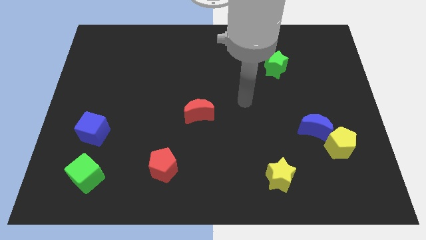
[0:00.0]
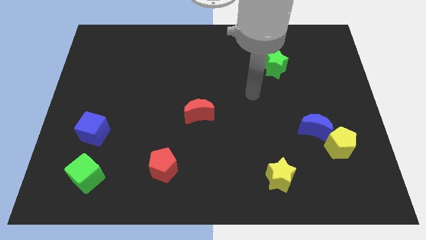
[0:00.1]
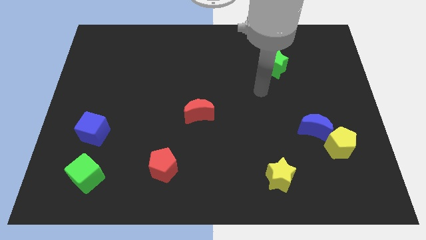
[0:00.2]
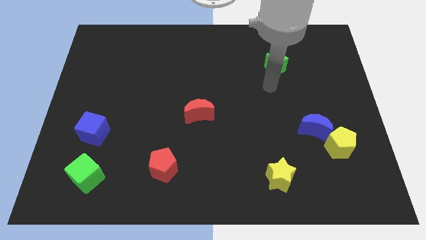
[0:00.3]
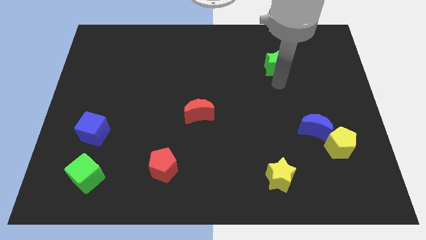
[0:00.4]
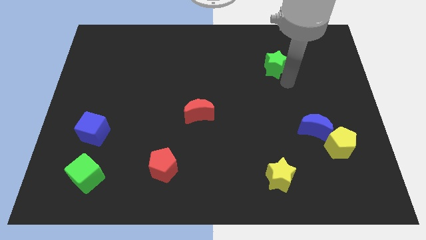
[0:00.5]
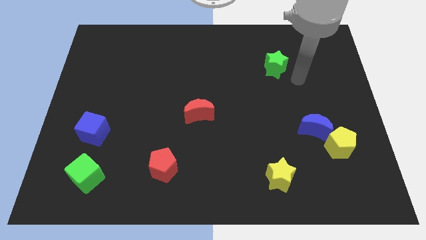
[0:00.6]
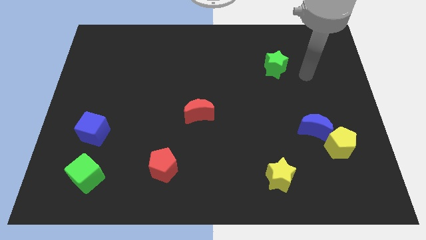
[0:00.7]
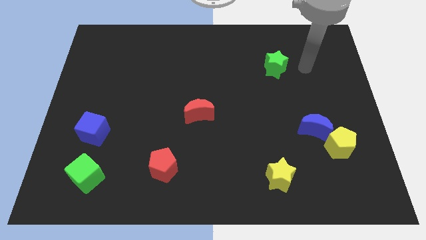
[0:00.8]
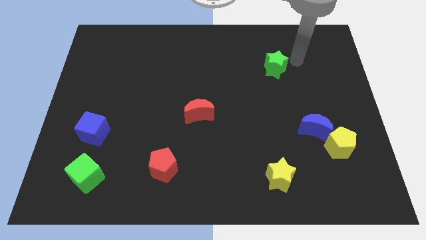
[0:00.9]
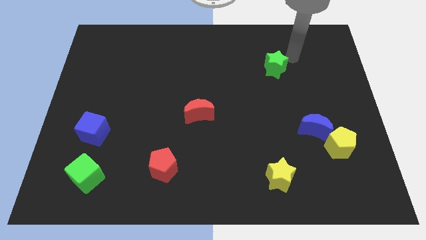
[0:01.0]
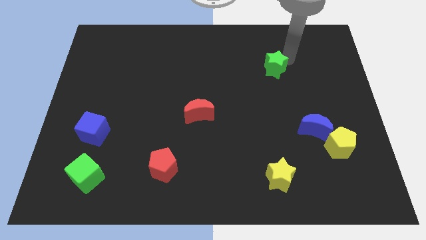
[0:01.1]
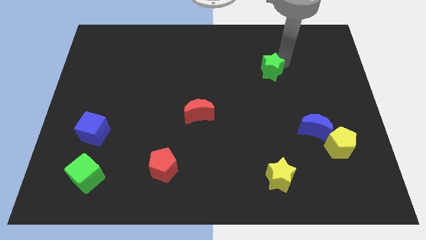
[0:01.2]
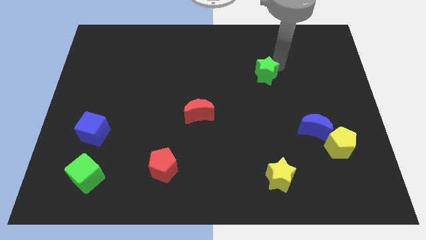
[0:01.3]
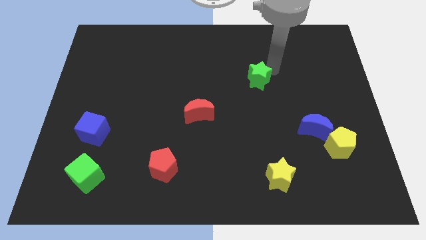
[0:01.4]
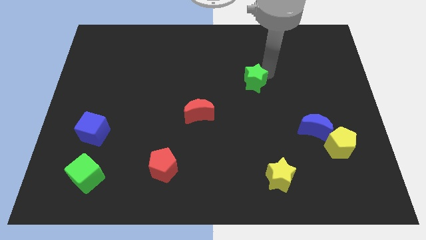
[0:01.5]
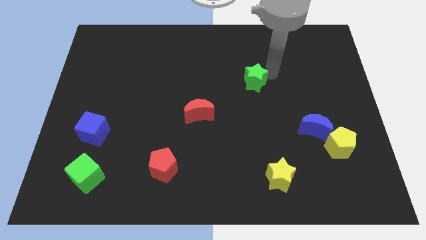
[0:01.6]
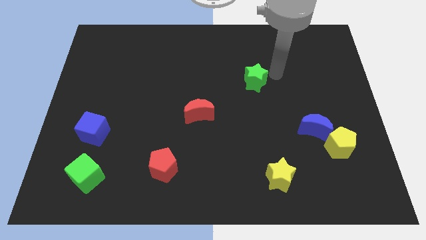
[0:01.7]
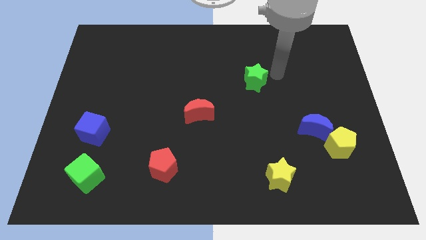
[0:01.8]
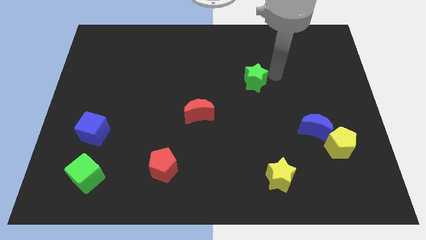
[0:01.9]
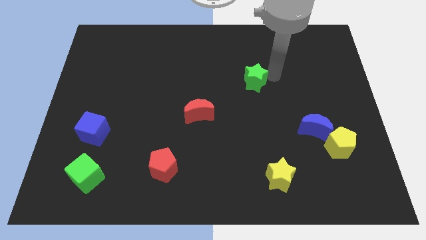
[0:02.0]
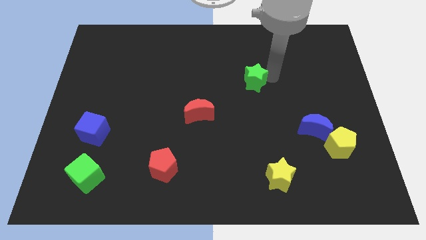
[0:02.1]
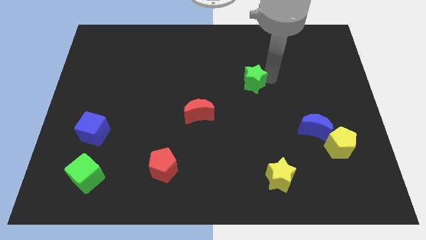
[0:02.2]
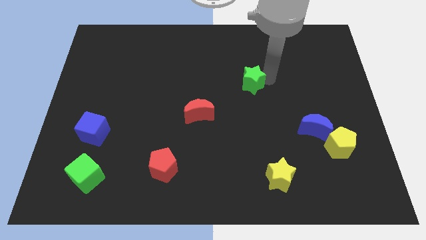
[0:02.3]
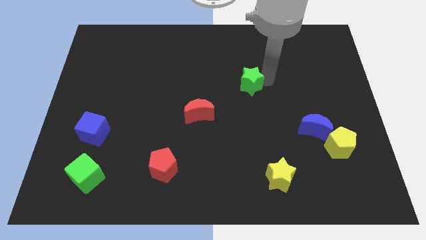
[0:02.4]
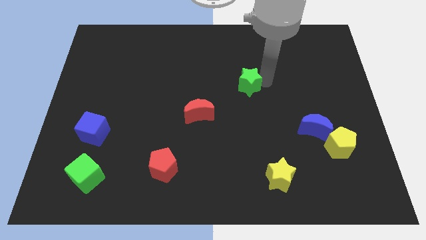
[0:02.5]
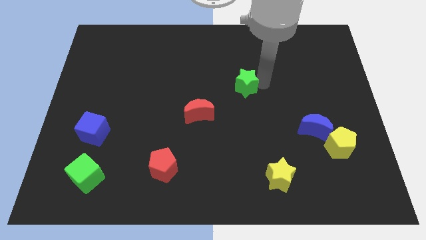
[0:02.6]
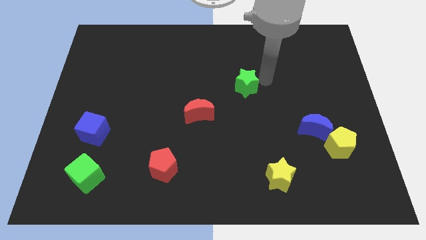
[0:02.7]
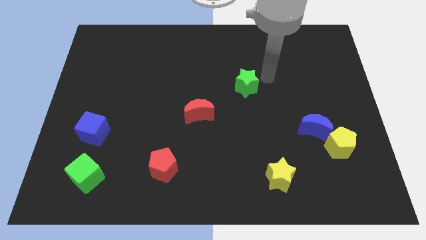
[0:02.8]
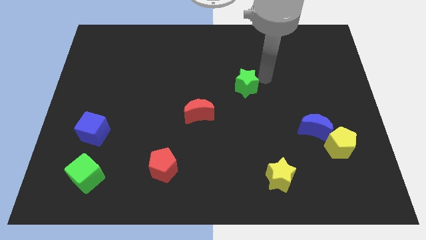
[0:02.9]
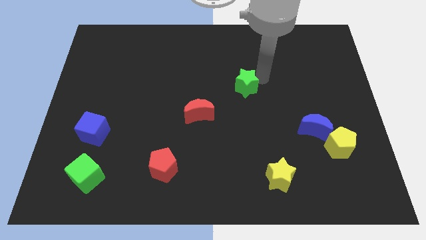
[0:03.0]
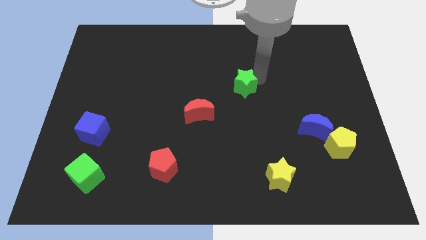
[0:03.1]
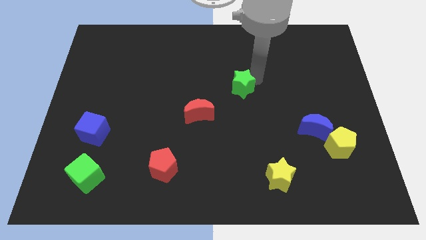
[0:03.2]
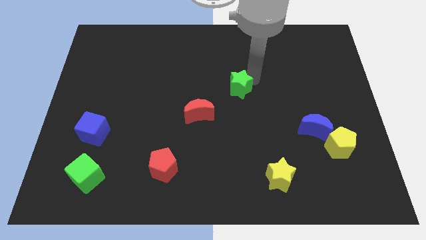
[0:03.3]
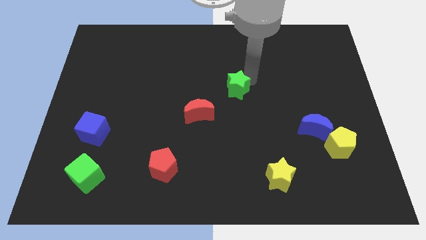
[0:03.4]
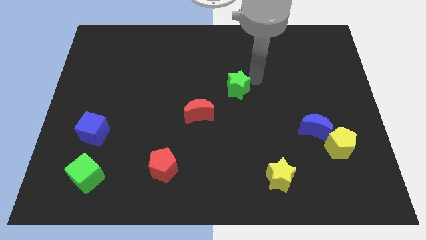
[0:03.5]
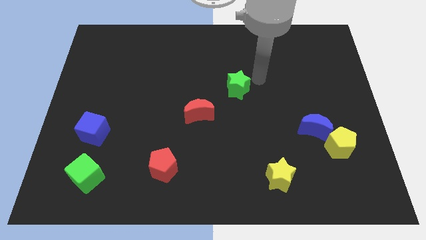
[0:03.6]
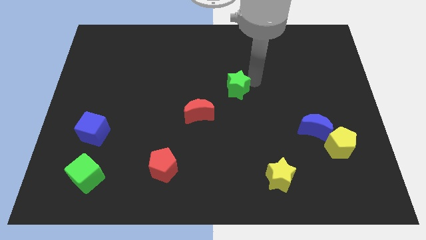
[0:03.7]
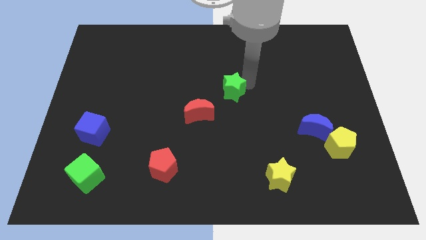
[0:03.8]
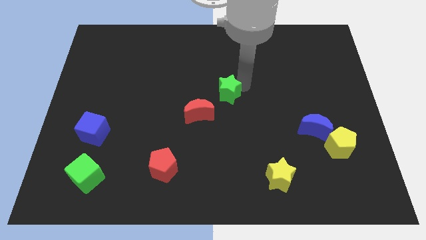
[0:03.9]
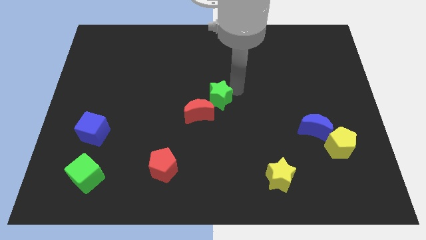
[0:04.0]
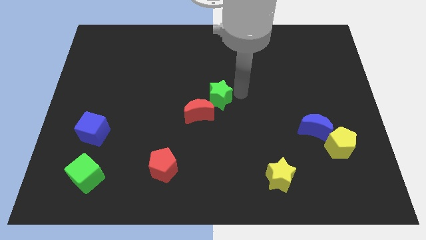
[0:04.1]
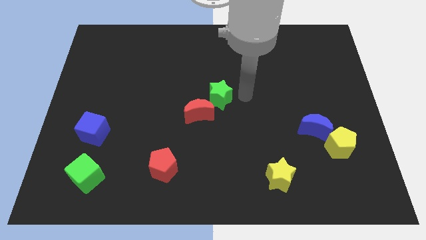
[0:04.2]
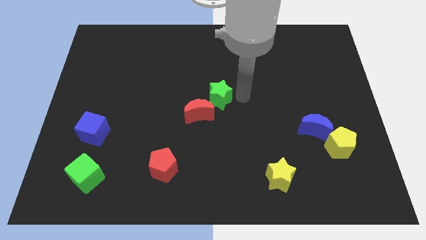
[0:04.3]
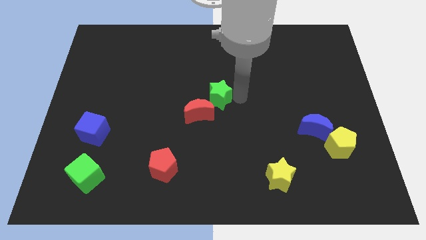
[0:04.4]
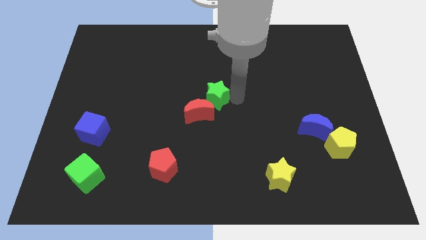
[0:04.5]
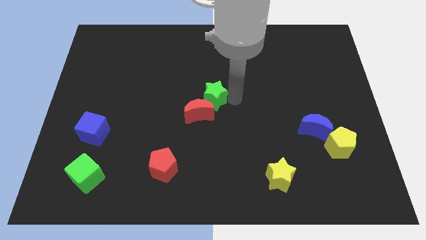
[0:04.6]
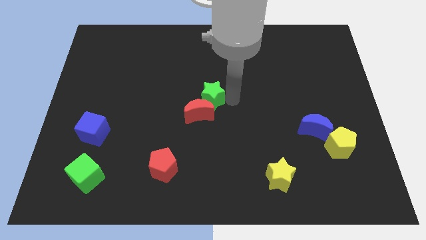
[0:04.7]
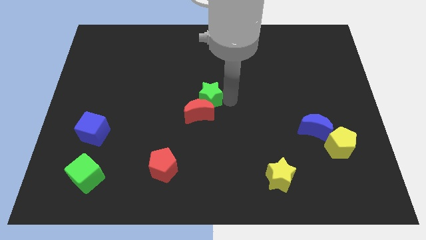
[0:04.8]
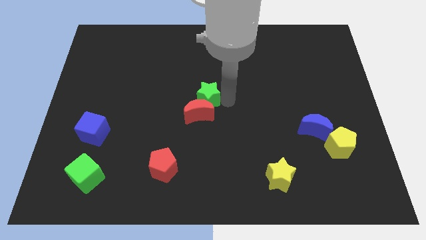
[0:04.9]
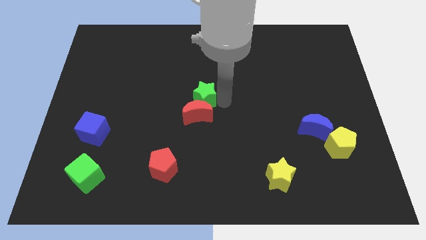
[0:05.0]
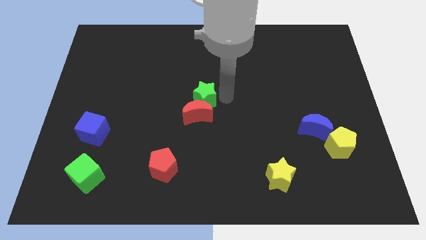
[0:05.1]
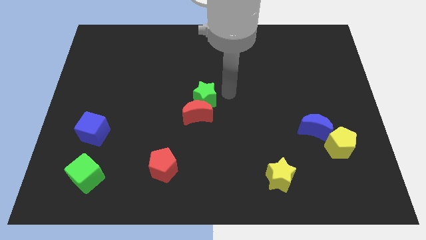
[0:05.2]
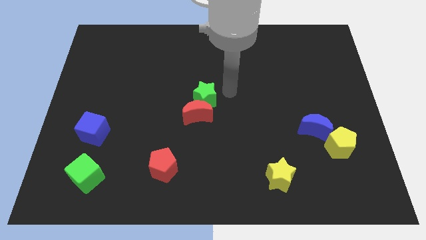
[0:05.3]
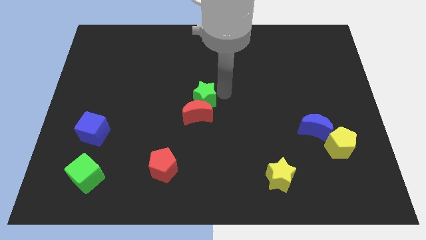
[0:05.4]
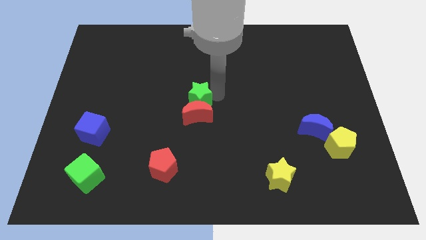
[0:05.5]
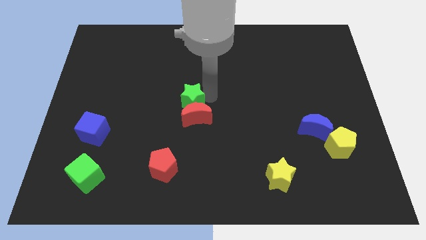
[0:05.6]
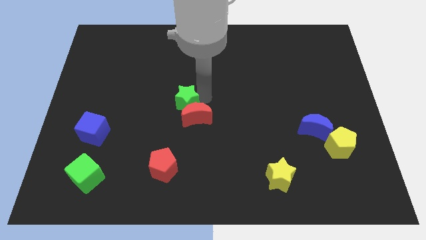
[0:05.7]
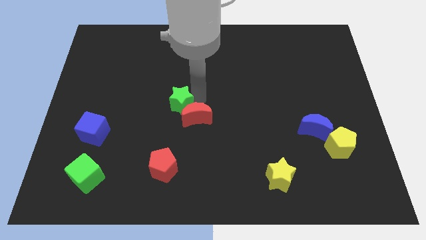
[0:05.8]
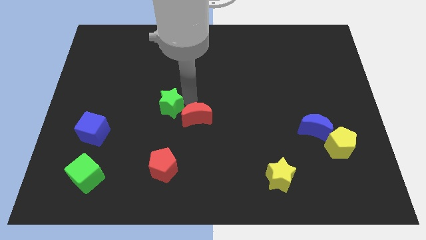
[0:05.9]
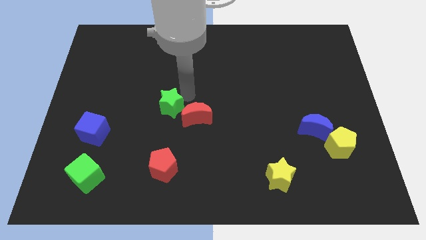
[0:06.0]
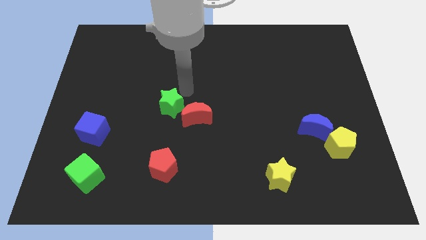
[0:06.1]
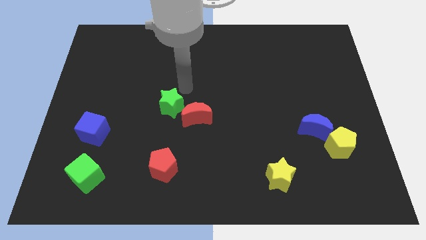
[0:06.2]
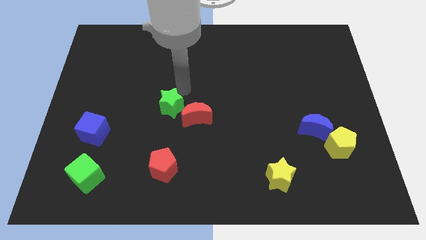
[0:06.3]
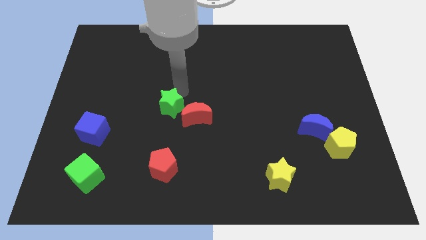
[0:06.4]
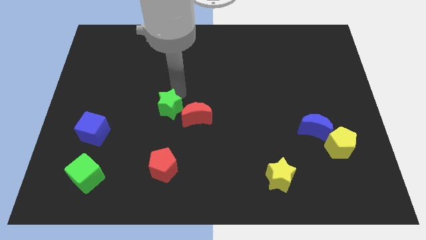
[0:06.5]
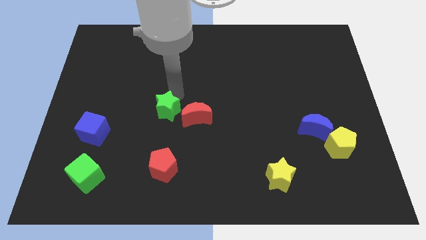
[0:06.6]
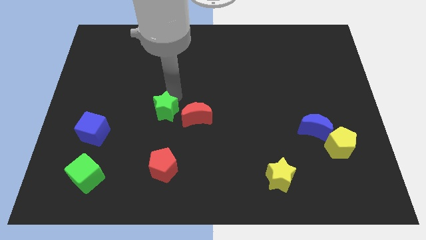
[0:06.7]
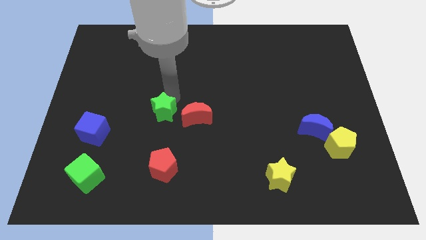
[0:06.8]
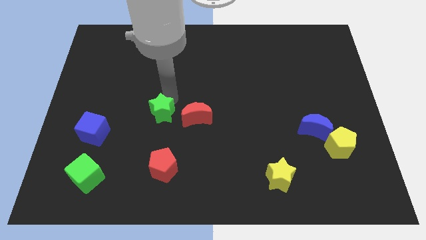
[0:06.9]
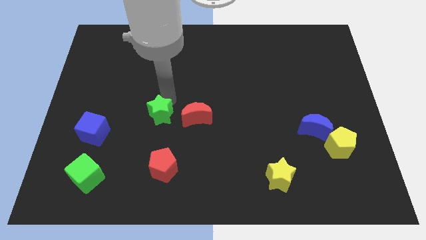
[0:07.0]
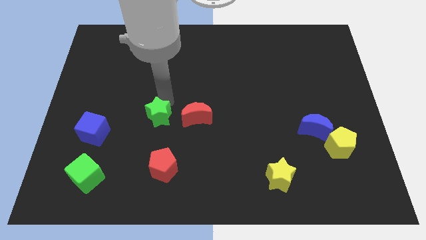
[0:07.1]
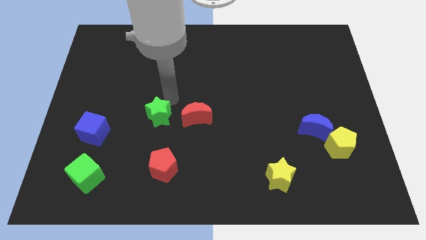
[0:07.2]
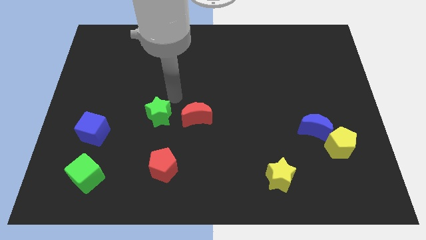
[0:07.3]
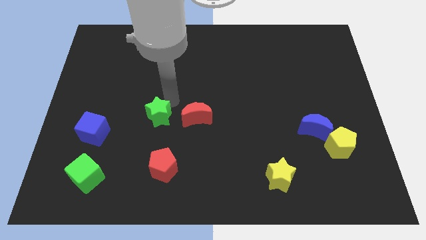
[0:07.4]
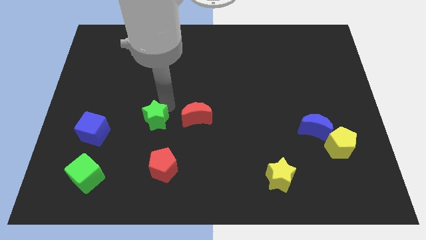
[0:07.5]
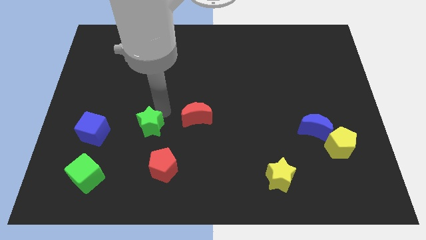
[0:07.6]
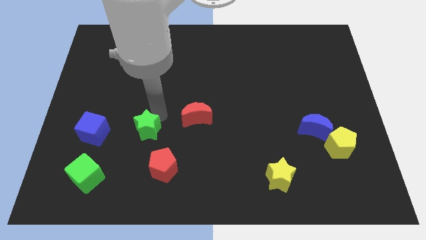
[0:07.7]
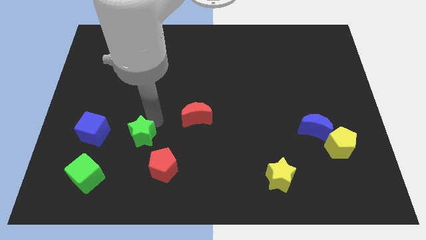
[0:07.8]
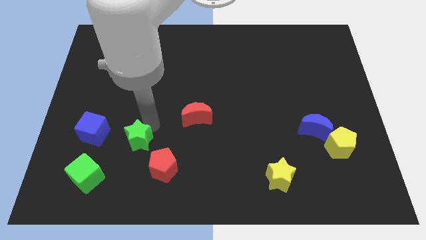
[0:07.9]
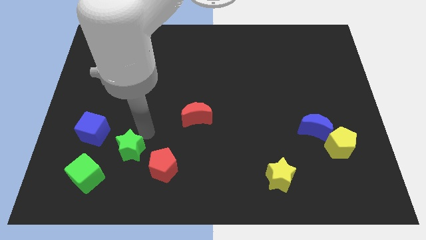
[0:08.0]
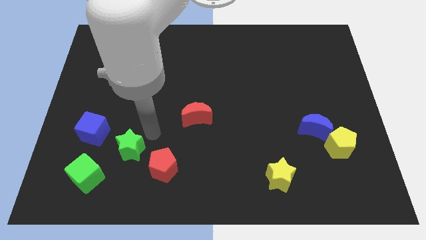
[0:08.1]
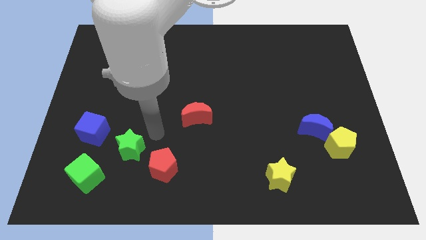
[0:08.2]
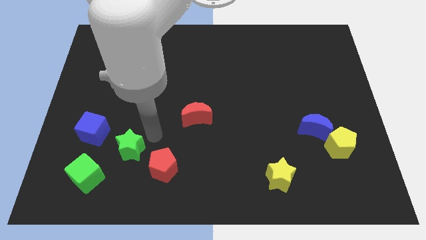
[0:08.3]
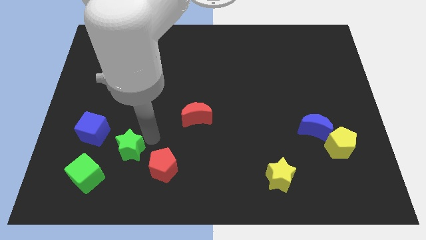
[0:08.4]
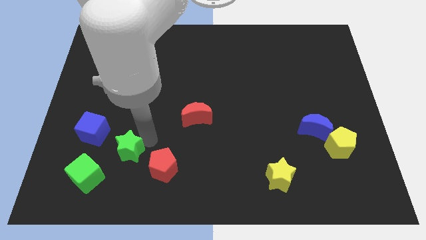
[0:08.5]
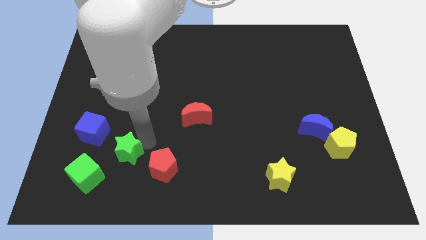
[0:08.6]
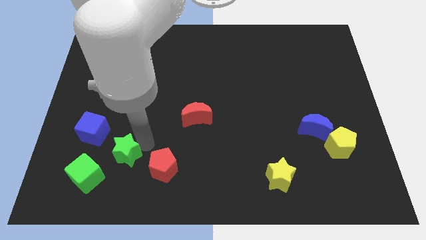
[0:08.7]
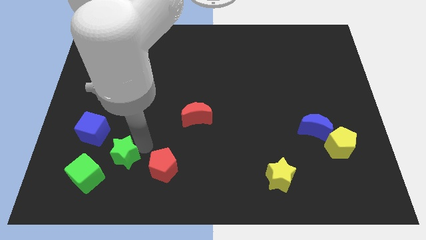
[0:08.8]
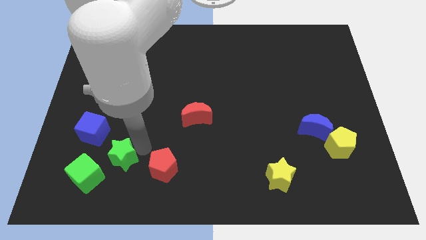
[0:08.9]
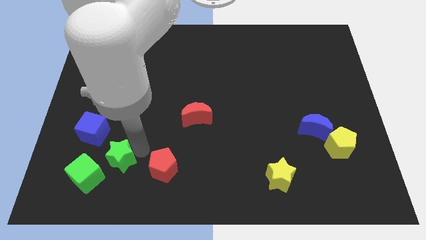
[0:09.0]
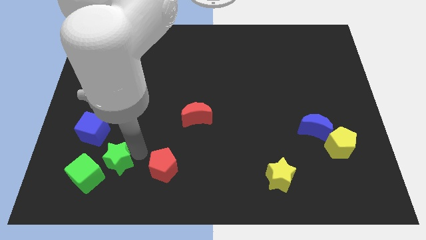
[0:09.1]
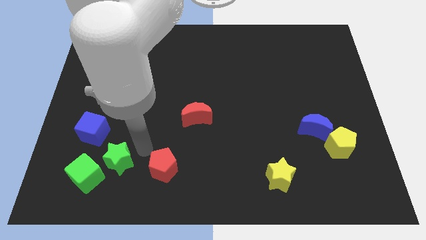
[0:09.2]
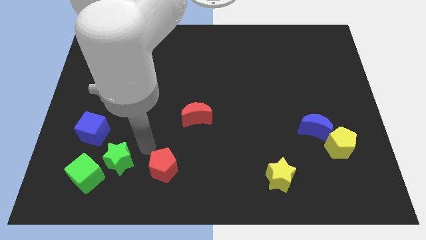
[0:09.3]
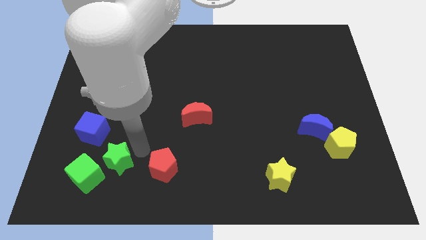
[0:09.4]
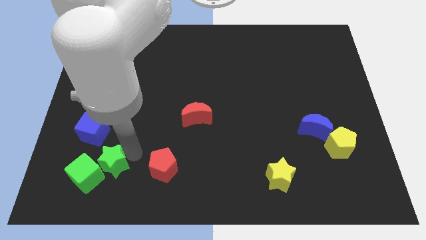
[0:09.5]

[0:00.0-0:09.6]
push the green star towards the green cube
